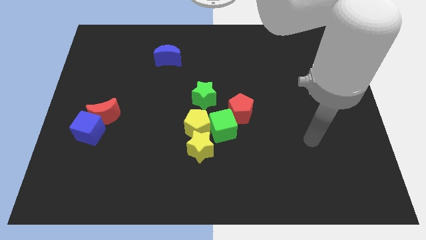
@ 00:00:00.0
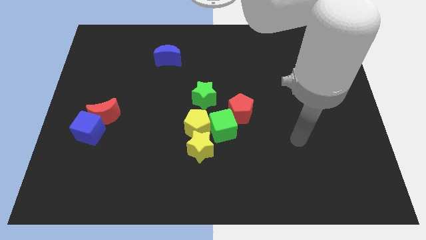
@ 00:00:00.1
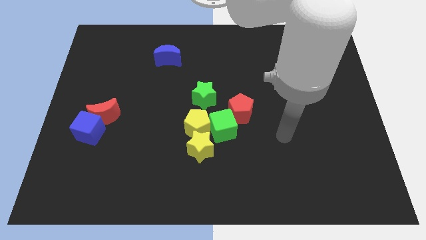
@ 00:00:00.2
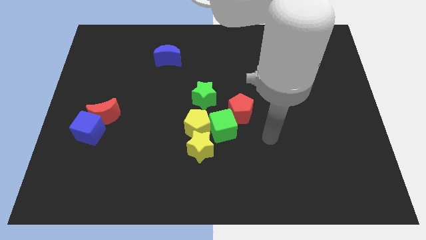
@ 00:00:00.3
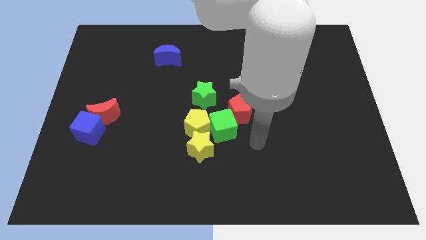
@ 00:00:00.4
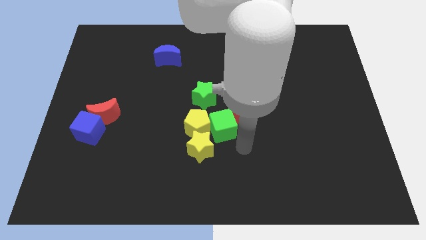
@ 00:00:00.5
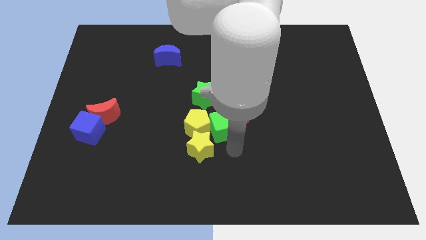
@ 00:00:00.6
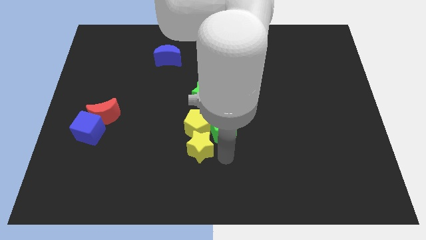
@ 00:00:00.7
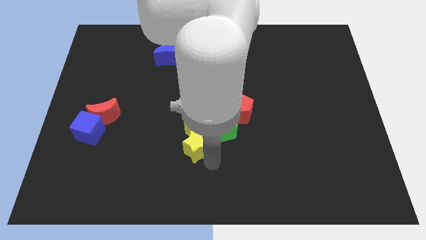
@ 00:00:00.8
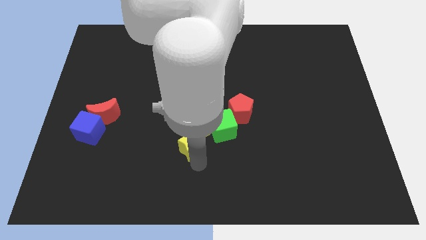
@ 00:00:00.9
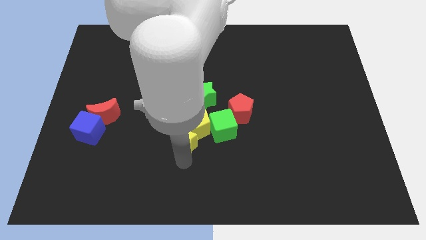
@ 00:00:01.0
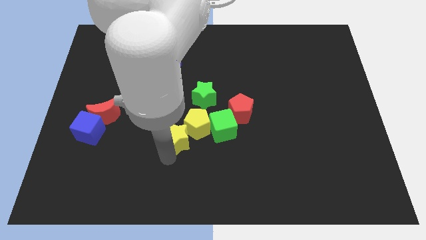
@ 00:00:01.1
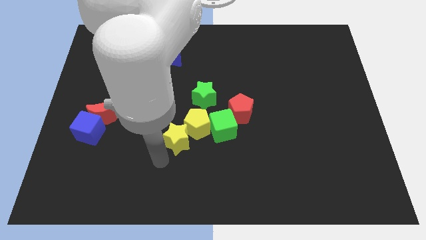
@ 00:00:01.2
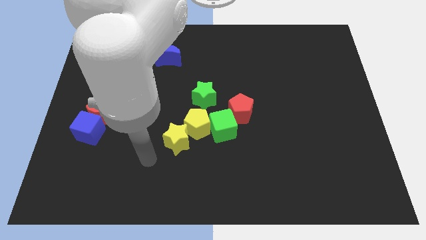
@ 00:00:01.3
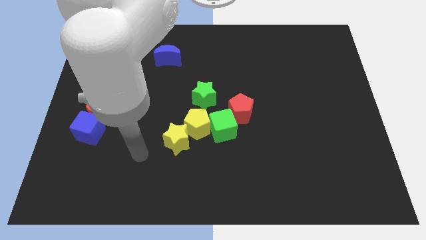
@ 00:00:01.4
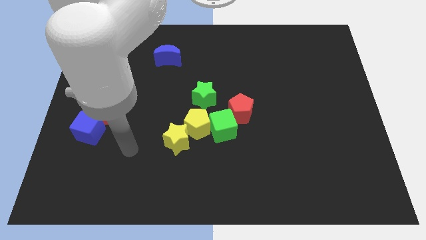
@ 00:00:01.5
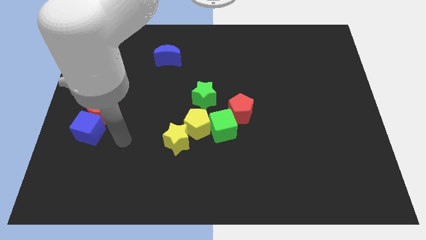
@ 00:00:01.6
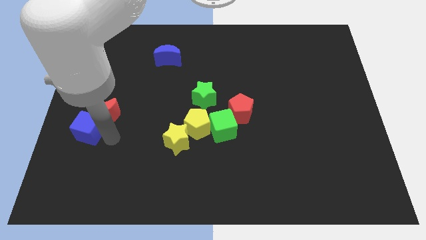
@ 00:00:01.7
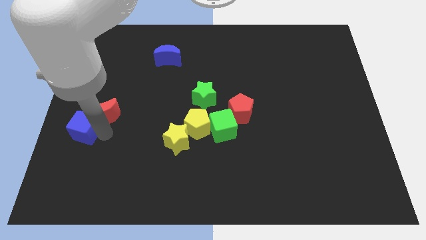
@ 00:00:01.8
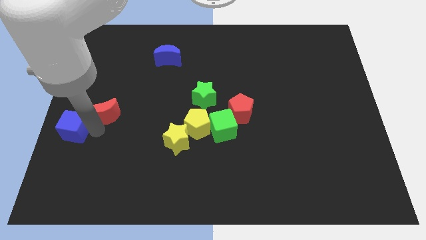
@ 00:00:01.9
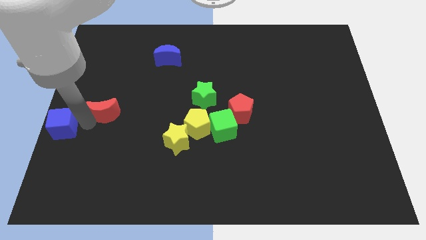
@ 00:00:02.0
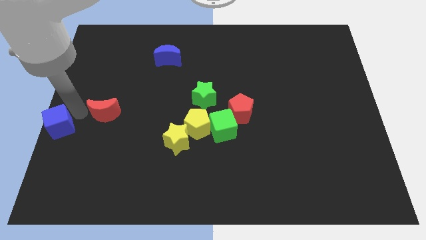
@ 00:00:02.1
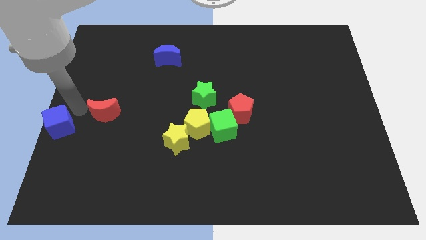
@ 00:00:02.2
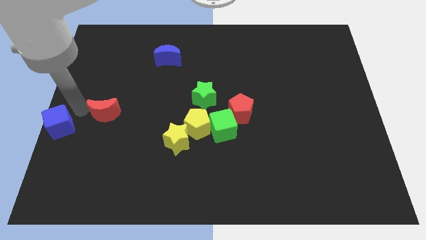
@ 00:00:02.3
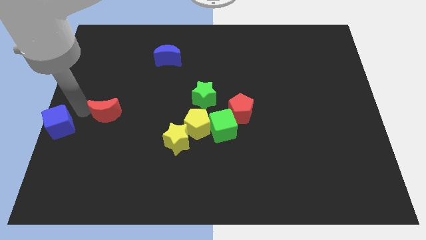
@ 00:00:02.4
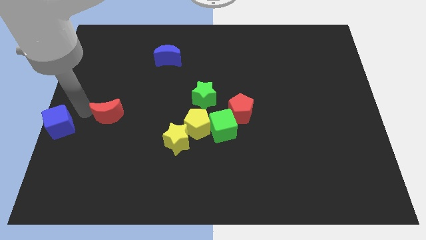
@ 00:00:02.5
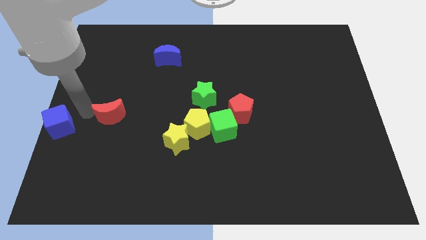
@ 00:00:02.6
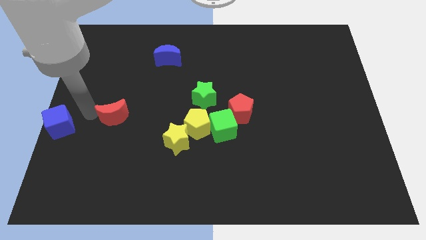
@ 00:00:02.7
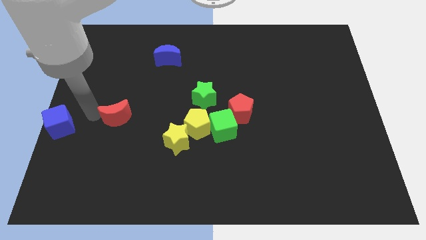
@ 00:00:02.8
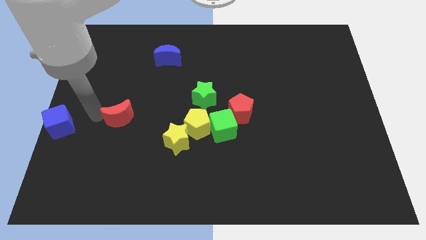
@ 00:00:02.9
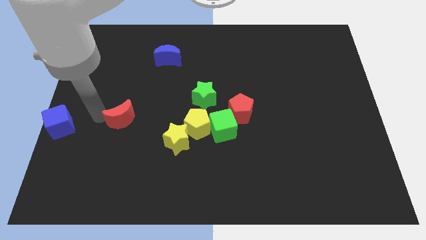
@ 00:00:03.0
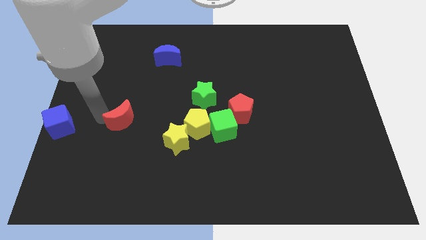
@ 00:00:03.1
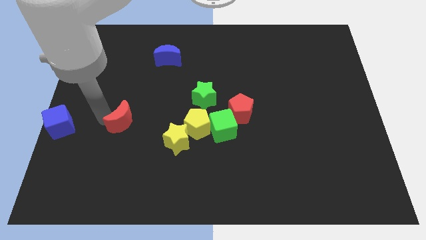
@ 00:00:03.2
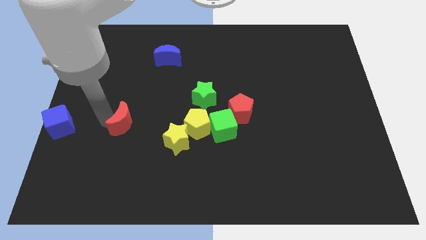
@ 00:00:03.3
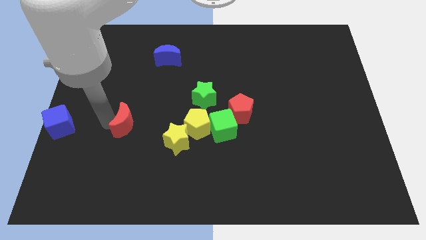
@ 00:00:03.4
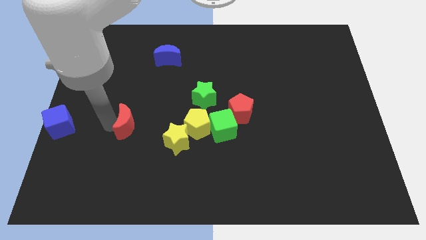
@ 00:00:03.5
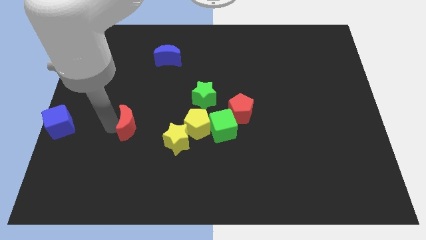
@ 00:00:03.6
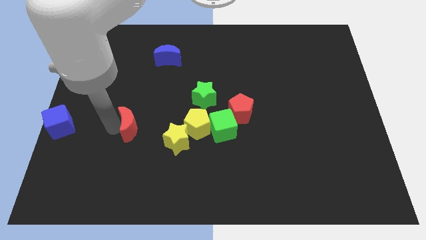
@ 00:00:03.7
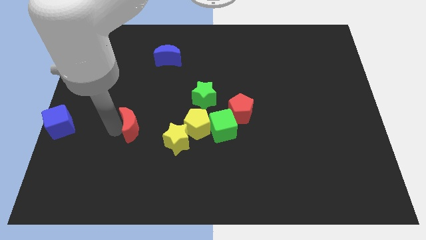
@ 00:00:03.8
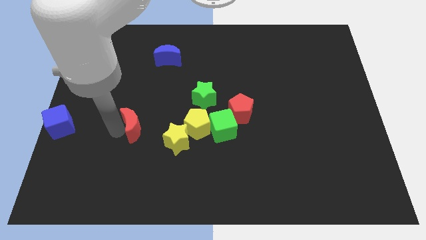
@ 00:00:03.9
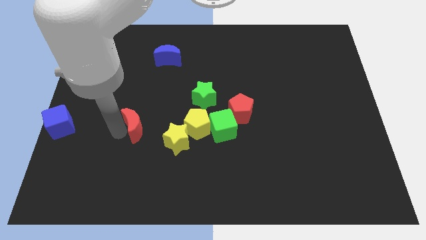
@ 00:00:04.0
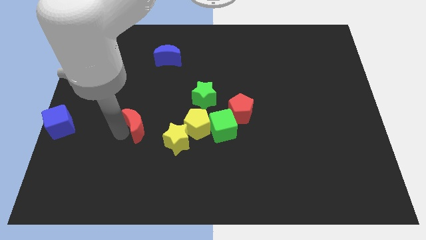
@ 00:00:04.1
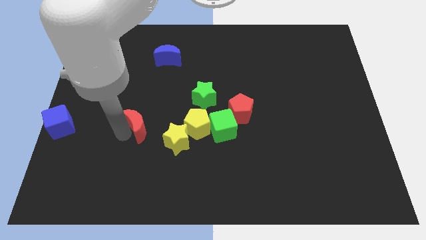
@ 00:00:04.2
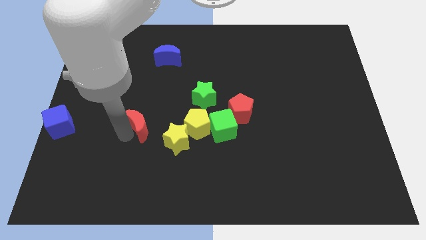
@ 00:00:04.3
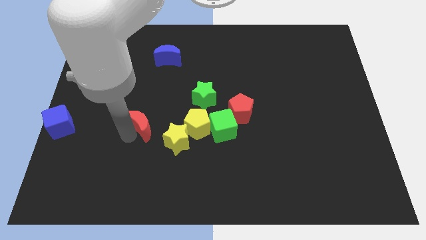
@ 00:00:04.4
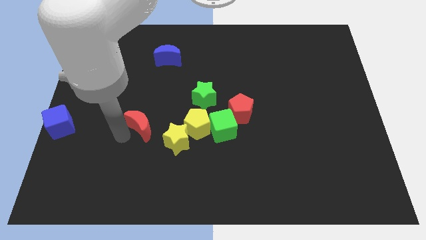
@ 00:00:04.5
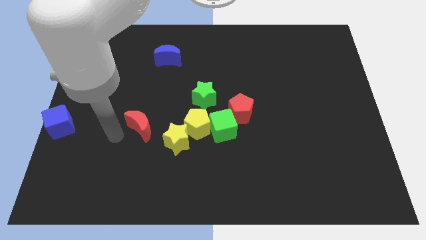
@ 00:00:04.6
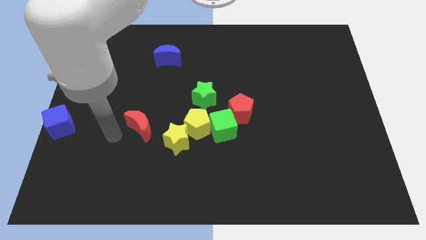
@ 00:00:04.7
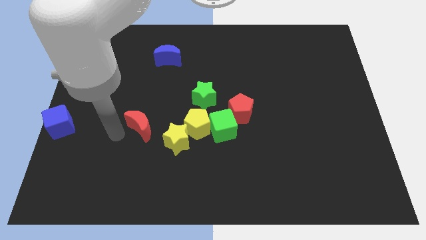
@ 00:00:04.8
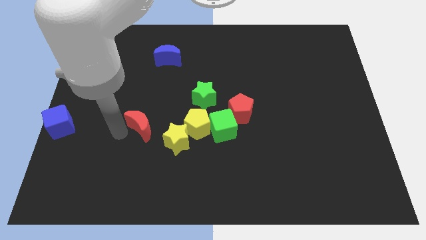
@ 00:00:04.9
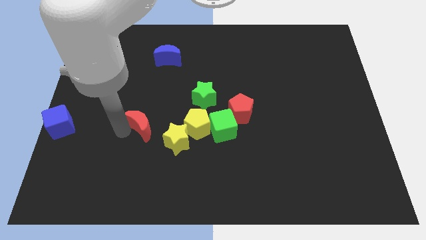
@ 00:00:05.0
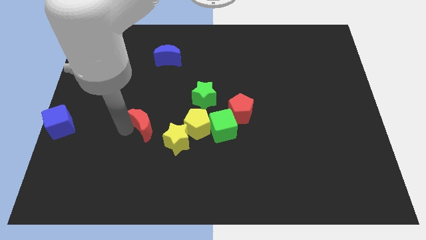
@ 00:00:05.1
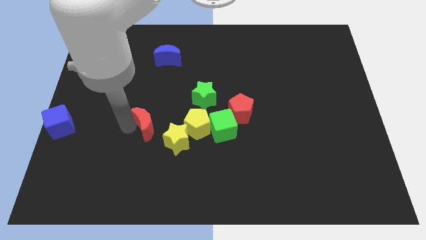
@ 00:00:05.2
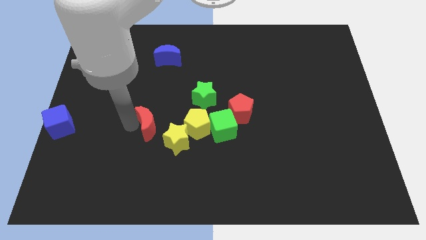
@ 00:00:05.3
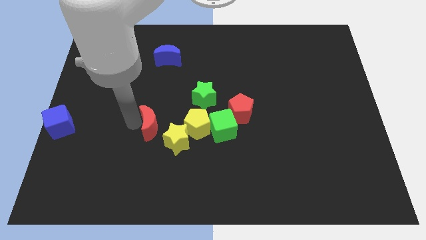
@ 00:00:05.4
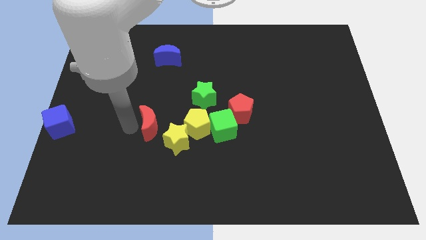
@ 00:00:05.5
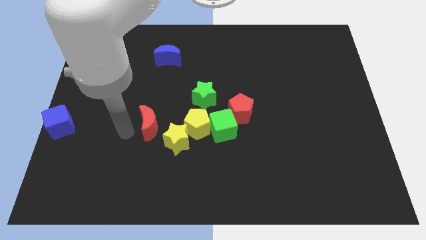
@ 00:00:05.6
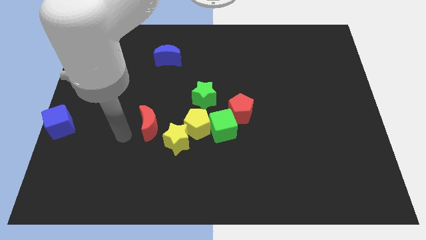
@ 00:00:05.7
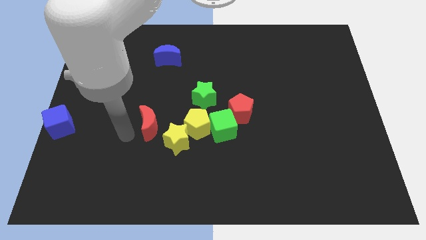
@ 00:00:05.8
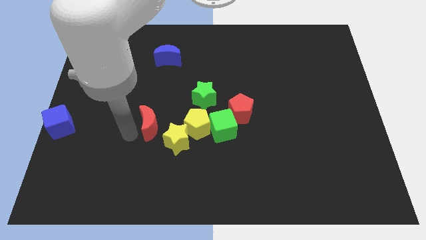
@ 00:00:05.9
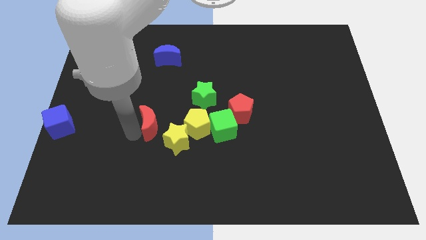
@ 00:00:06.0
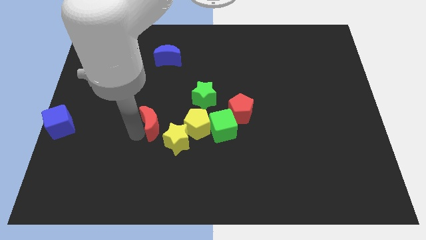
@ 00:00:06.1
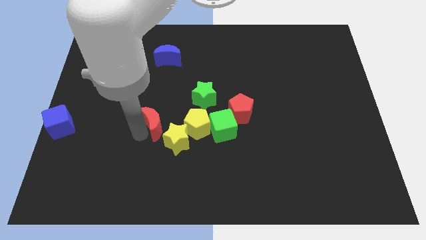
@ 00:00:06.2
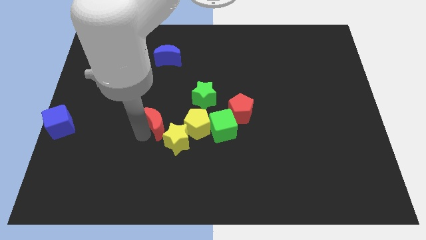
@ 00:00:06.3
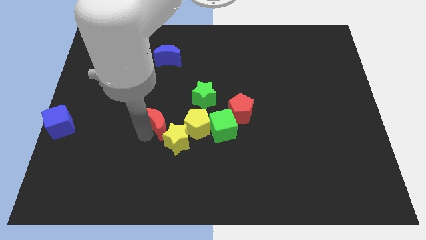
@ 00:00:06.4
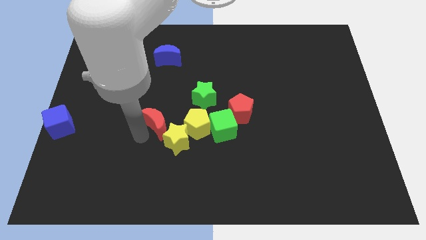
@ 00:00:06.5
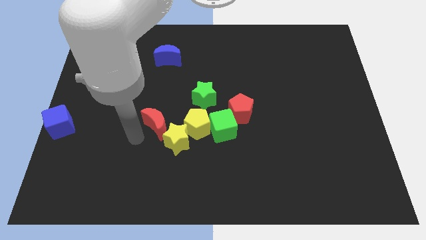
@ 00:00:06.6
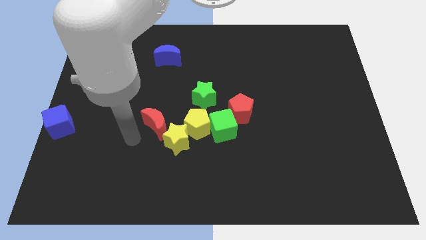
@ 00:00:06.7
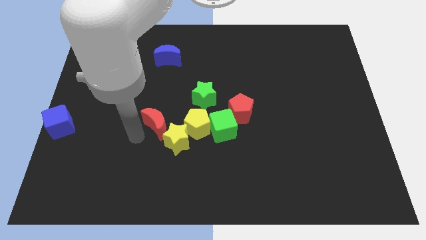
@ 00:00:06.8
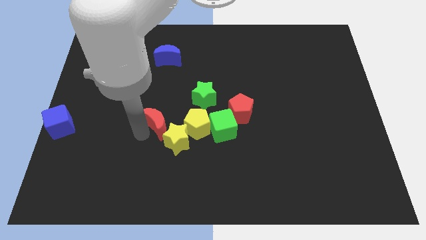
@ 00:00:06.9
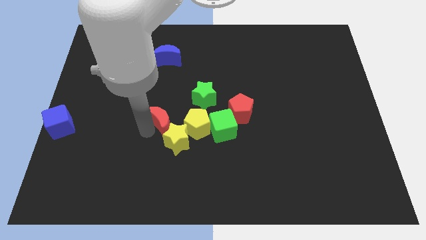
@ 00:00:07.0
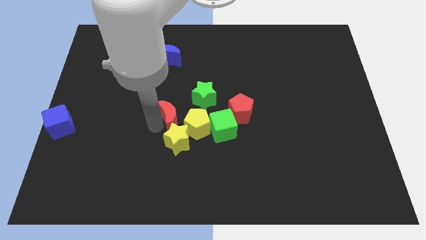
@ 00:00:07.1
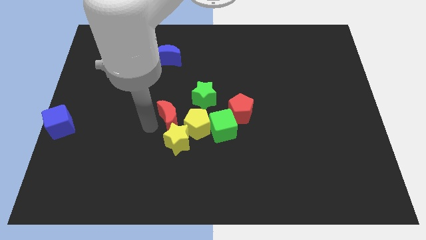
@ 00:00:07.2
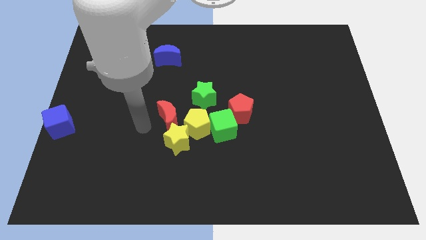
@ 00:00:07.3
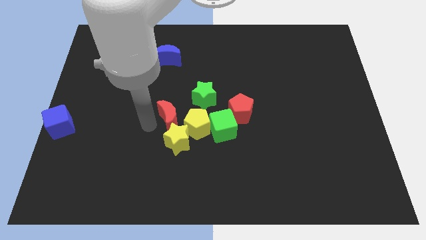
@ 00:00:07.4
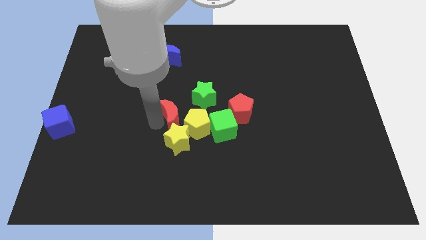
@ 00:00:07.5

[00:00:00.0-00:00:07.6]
slide the red moon to the left of the red pentagon
